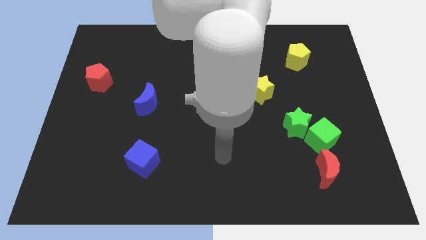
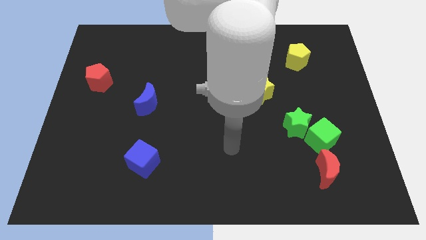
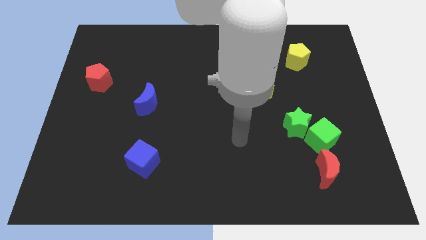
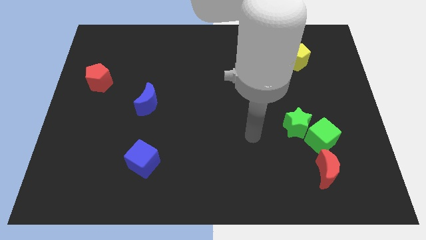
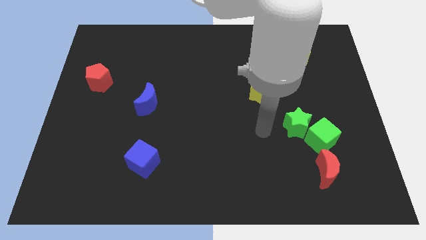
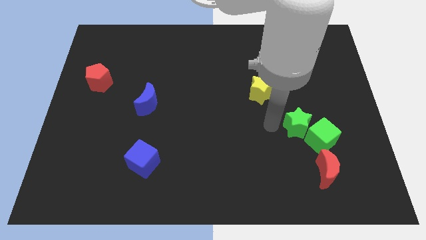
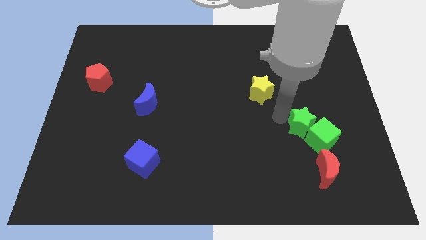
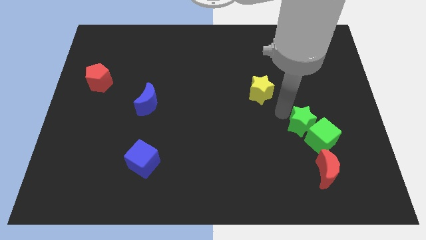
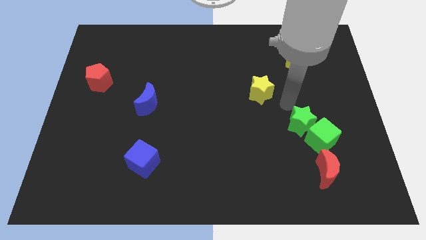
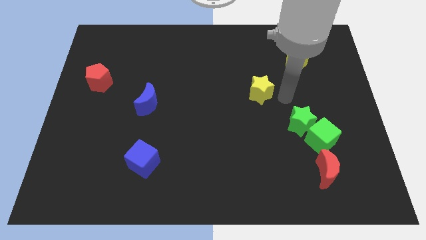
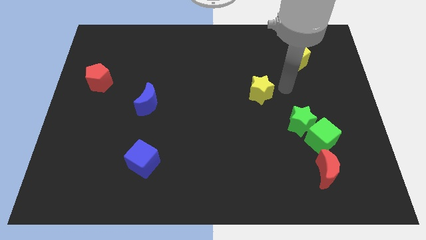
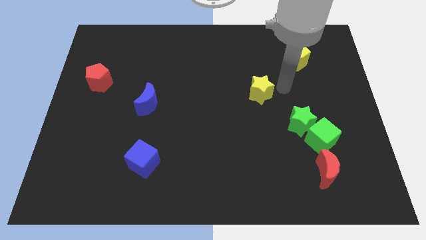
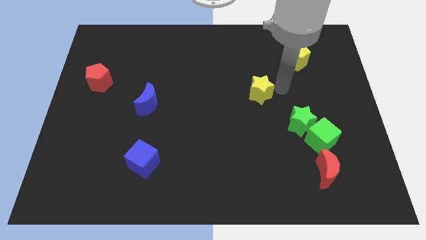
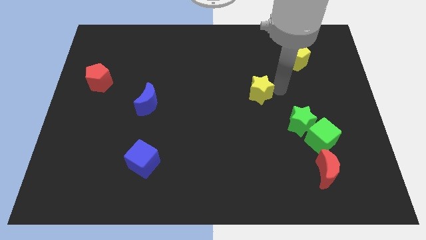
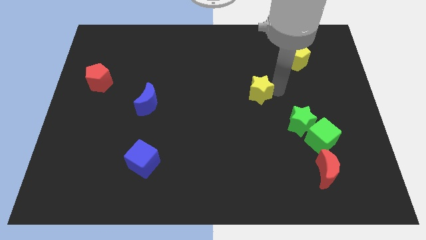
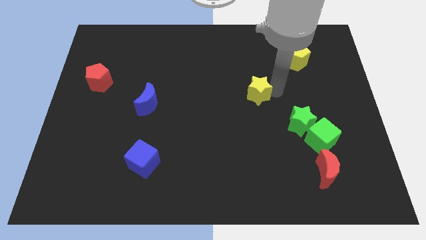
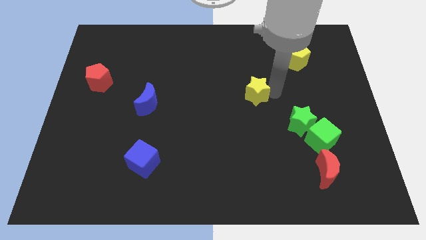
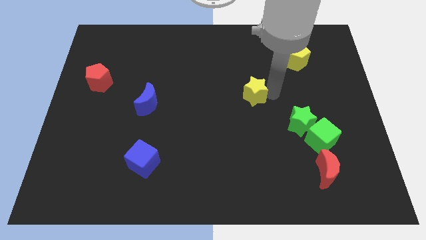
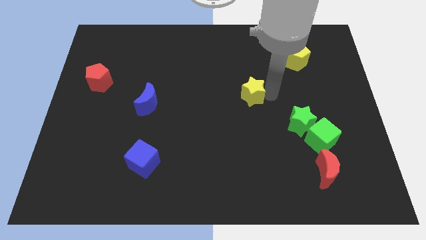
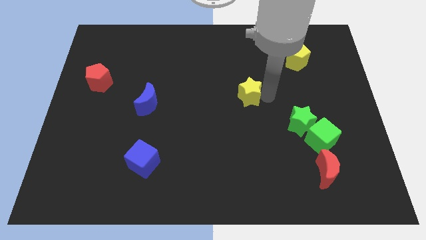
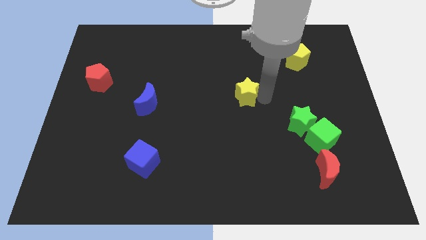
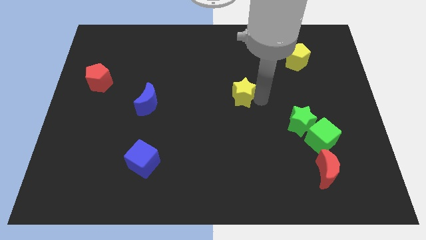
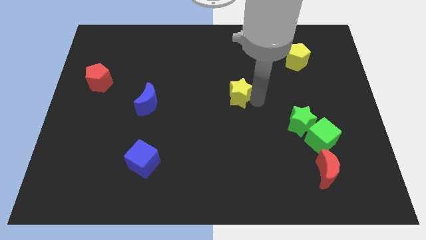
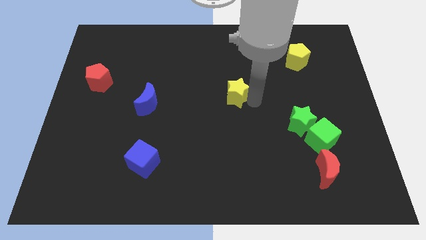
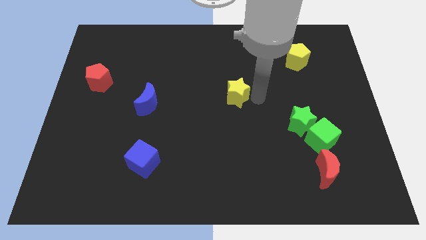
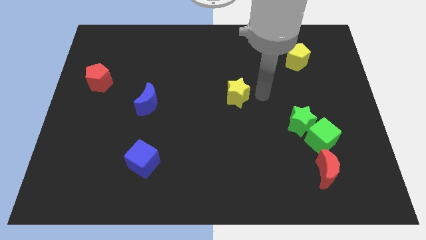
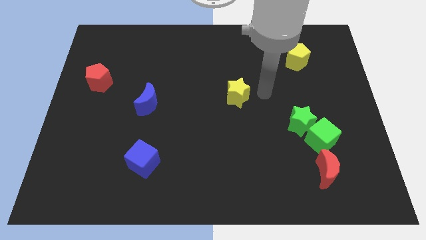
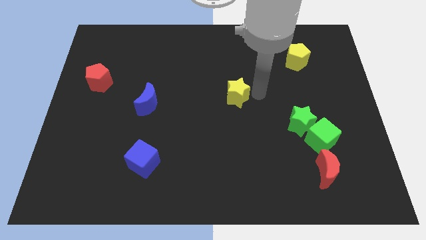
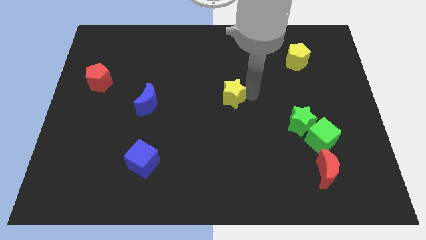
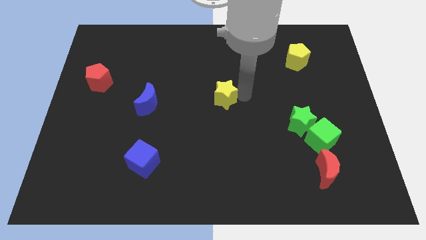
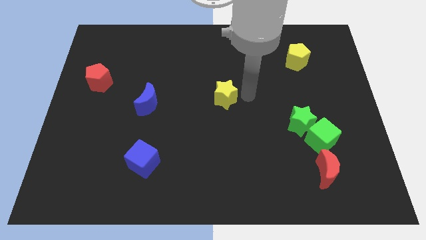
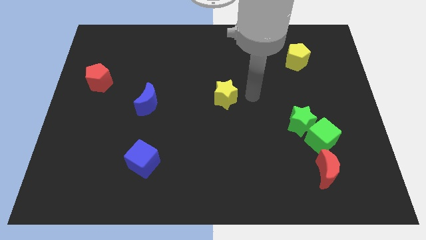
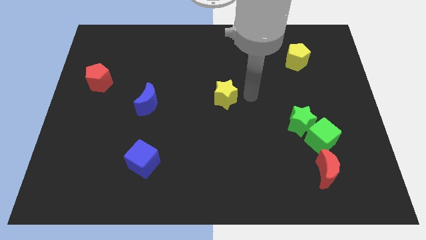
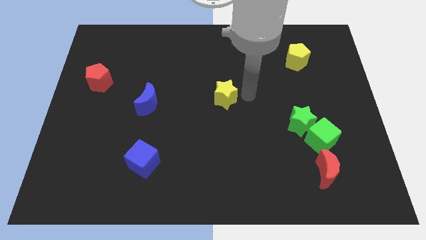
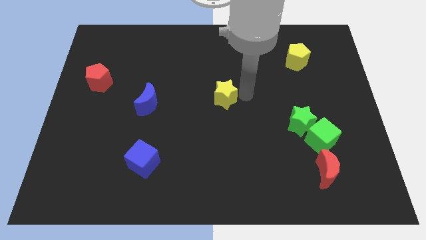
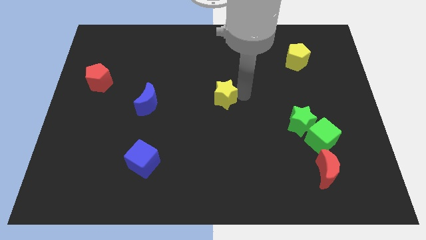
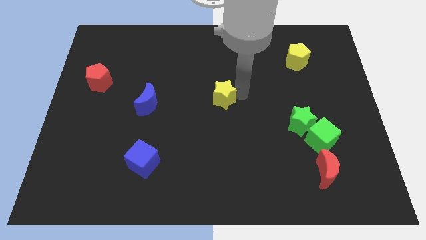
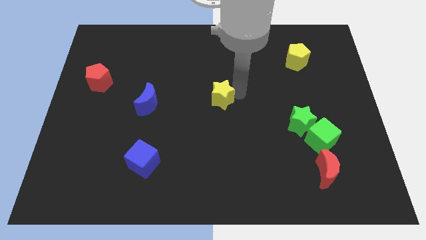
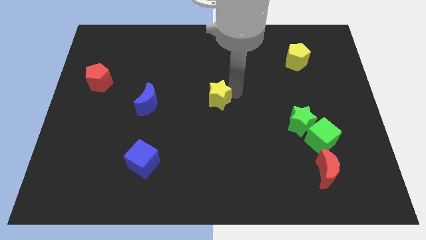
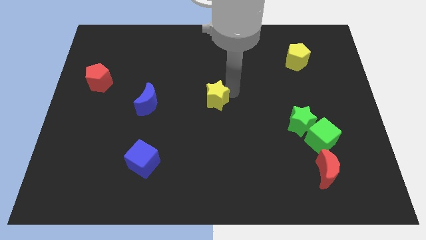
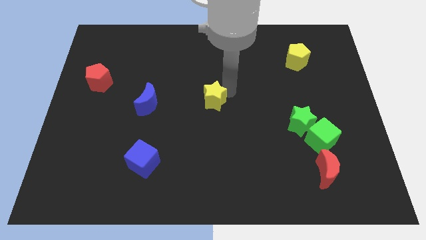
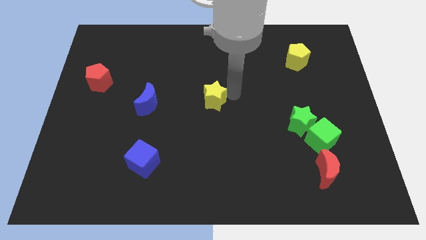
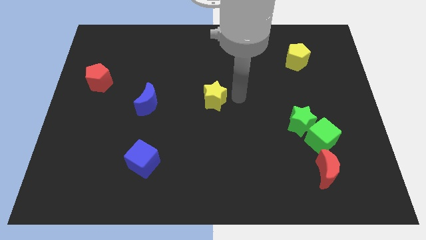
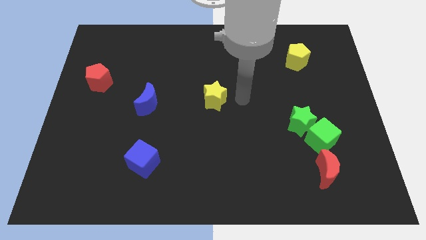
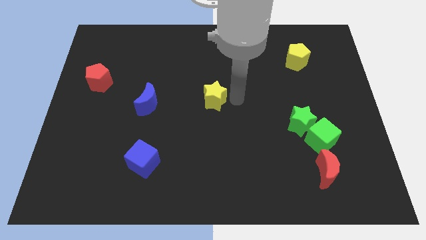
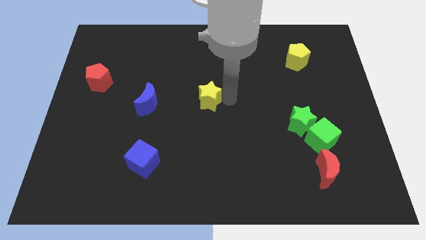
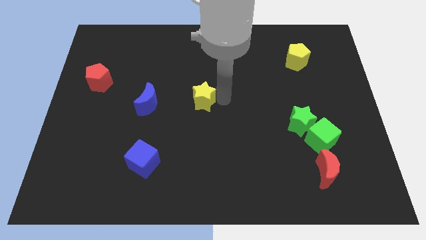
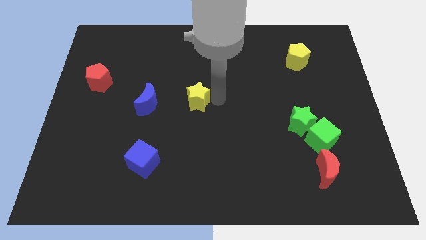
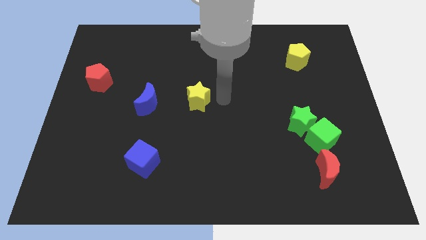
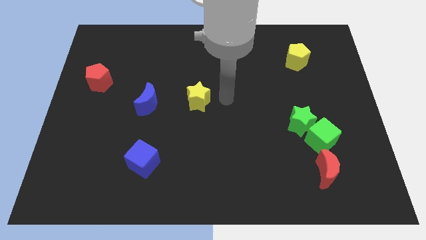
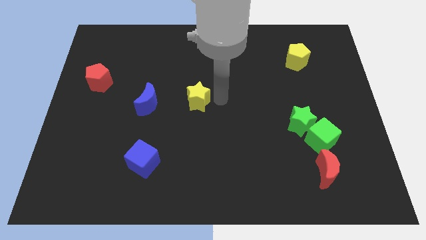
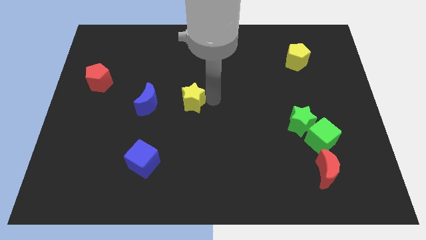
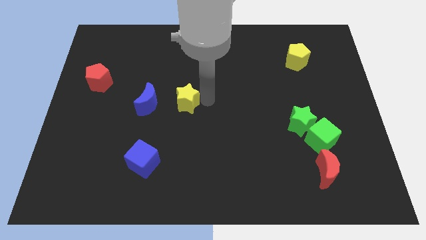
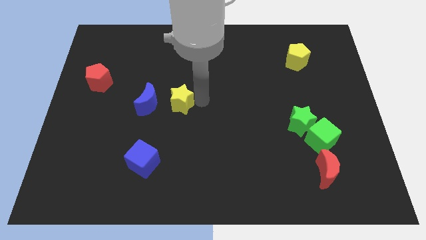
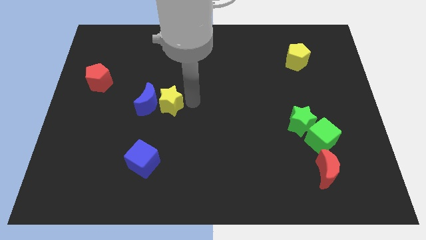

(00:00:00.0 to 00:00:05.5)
put the yellow star next to the blue moon

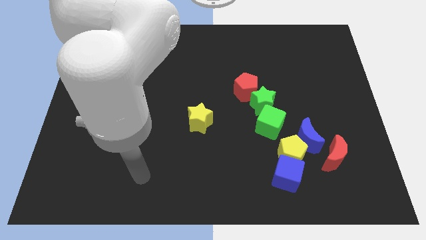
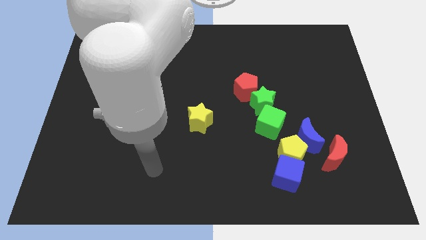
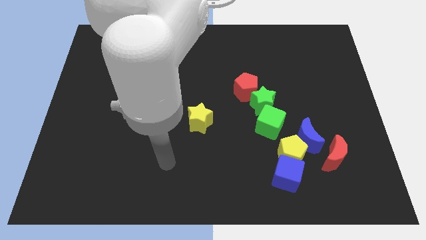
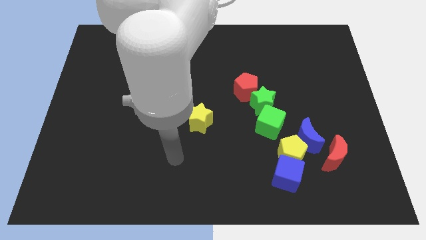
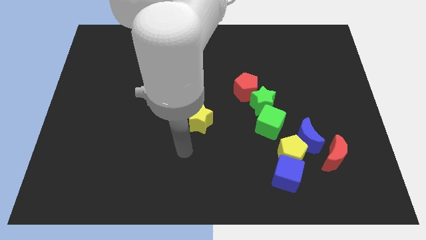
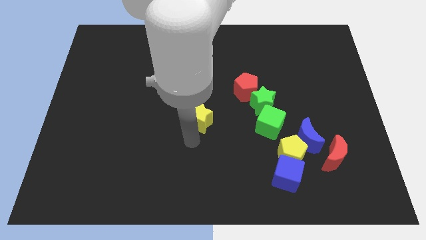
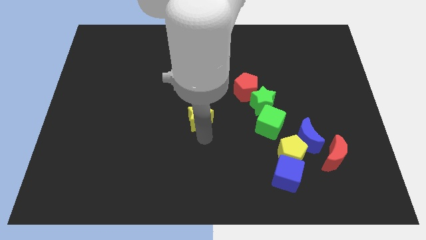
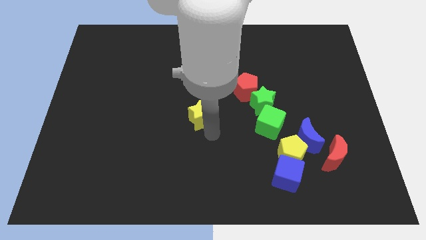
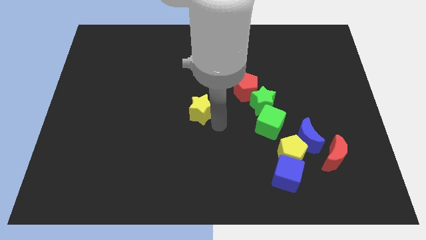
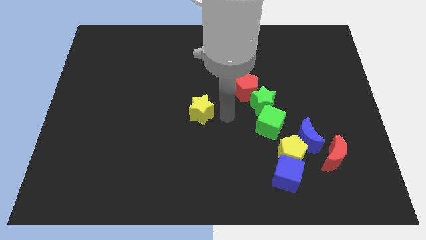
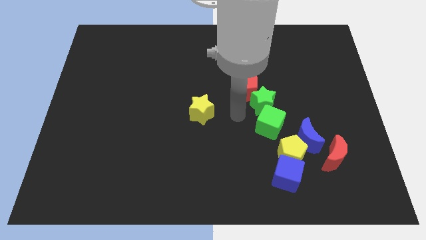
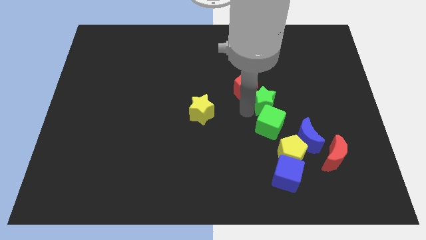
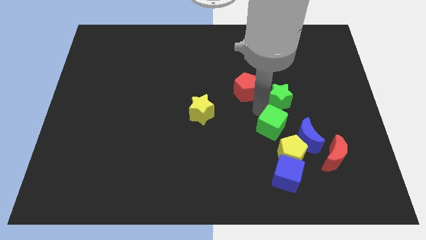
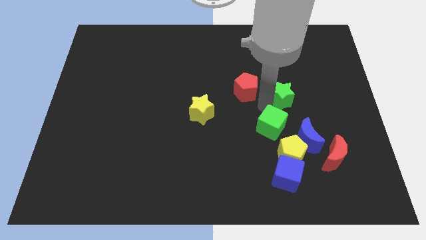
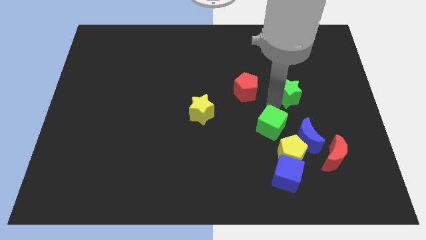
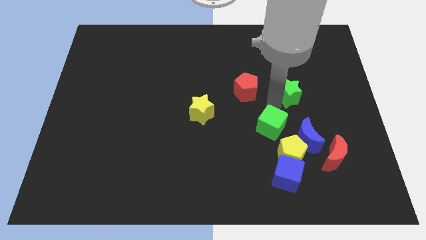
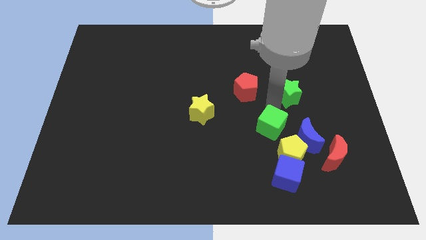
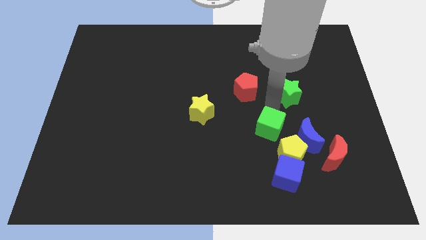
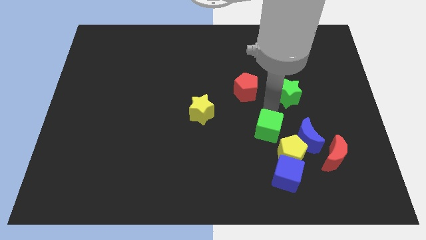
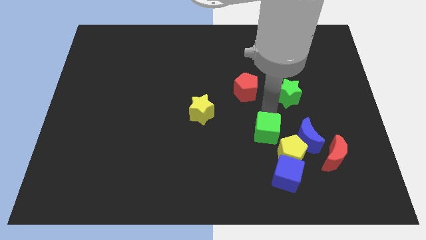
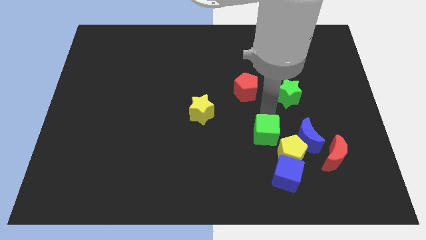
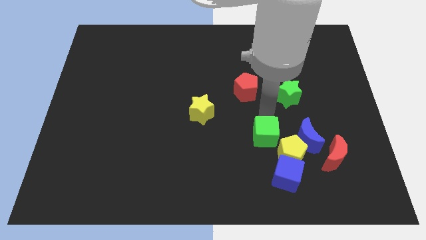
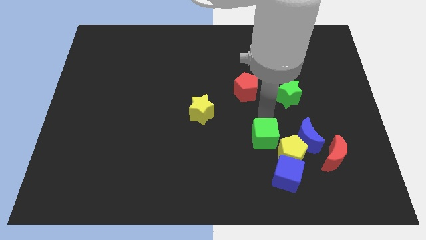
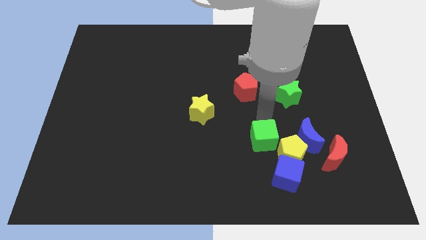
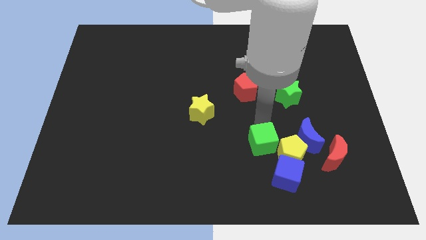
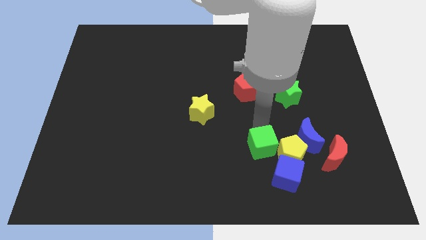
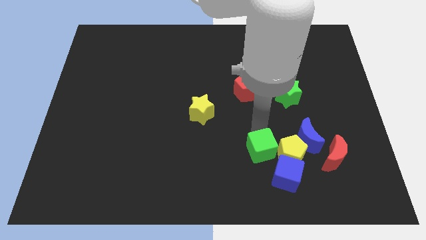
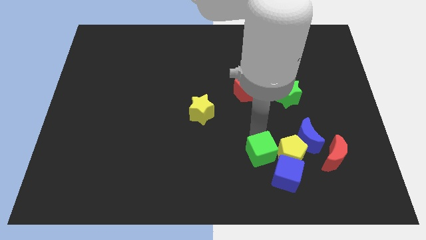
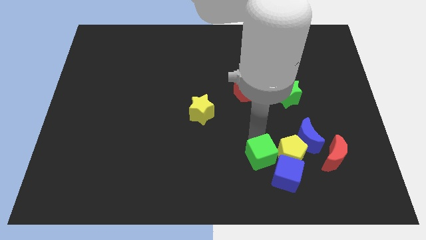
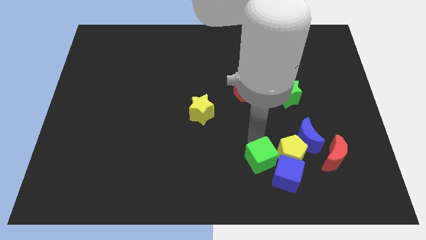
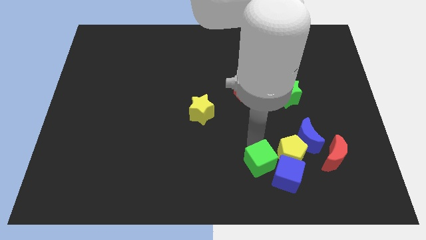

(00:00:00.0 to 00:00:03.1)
slide the green cube towards the blue cube
